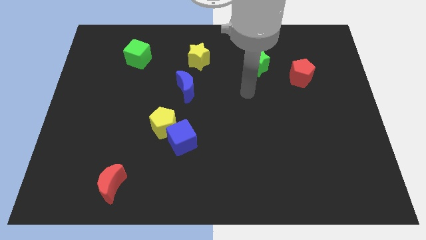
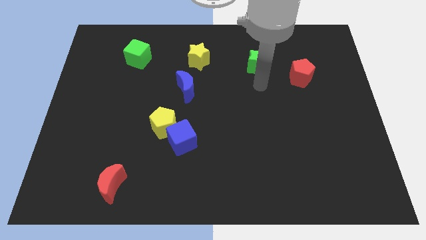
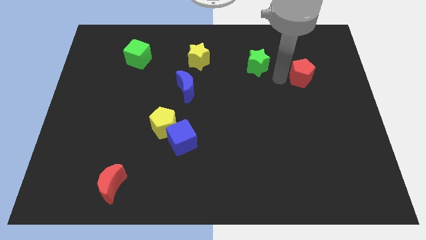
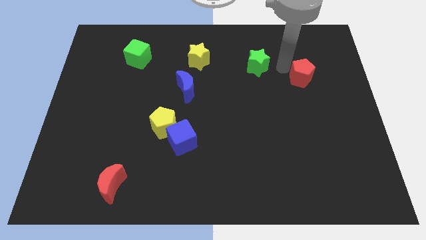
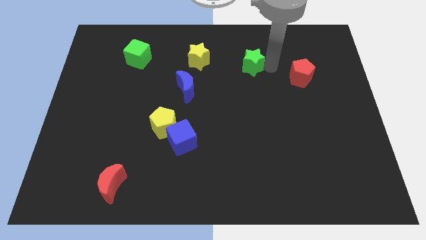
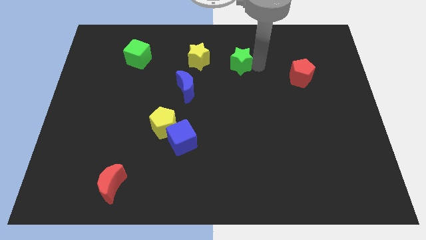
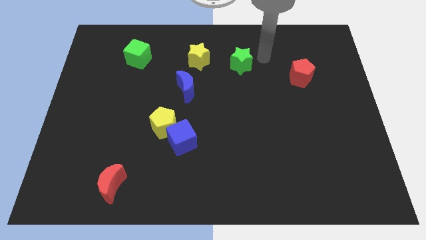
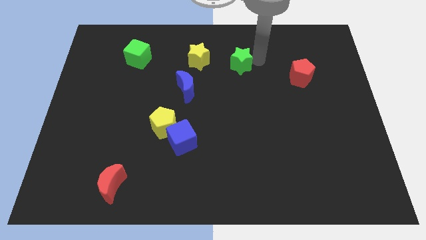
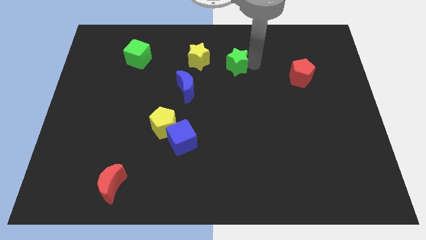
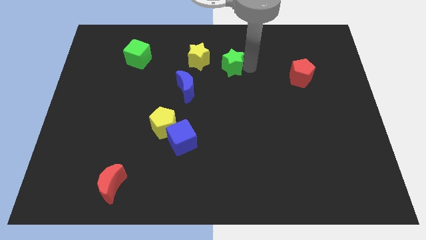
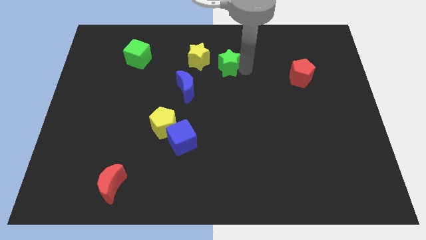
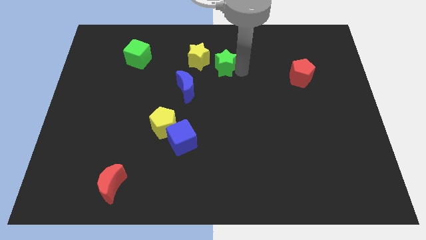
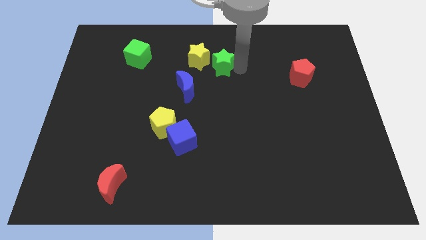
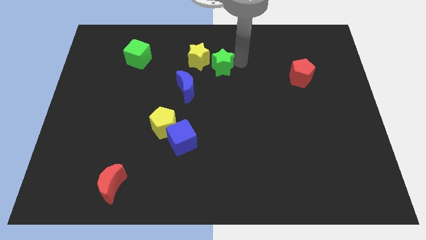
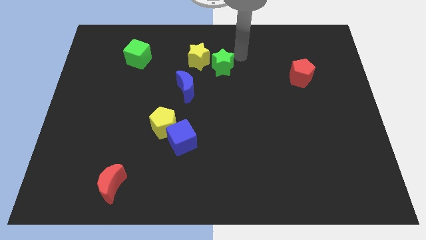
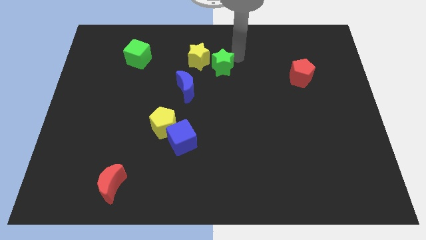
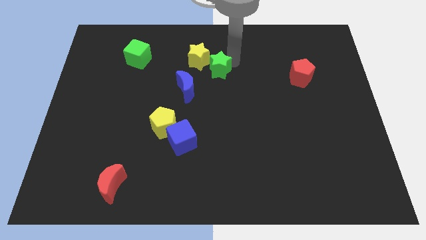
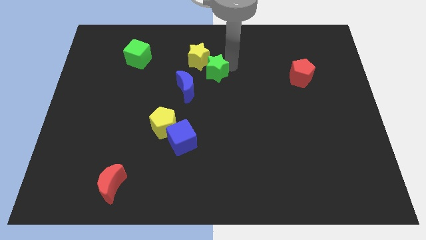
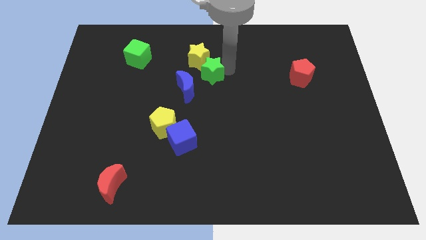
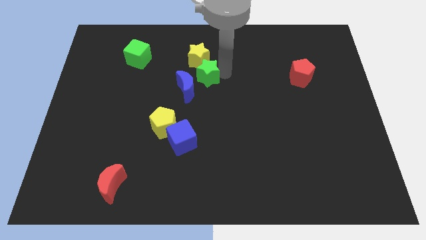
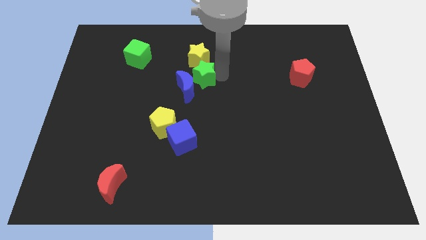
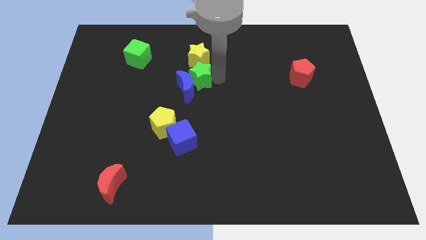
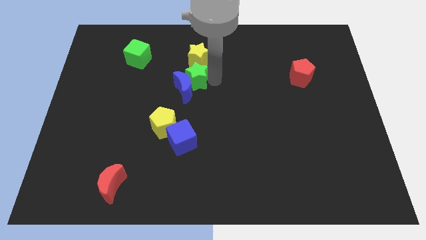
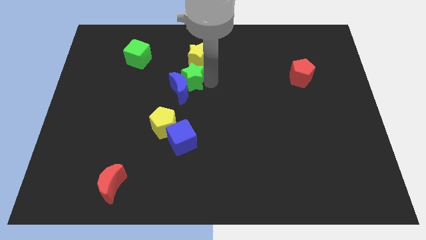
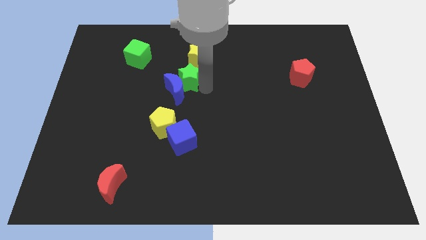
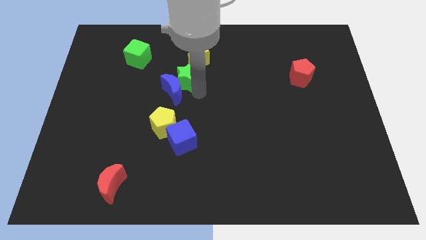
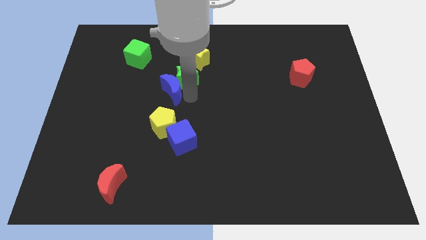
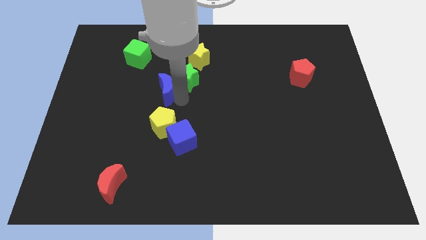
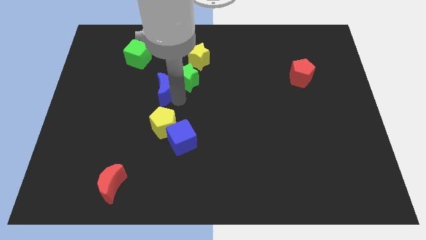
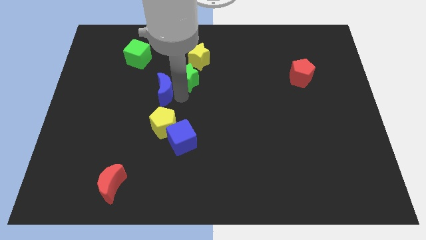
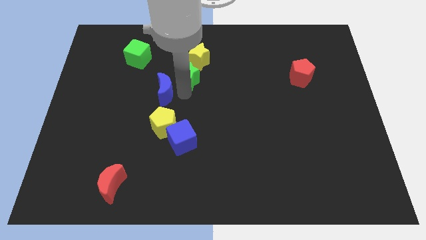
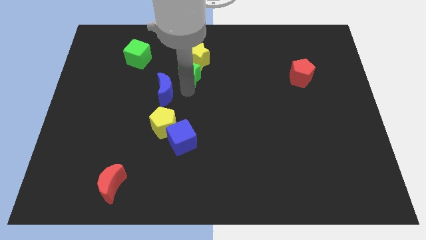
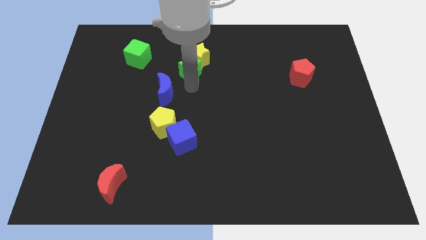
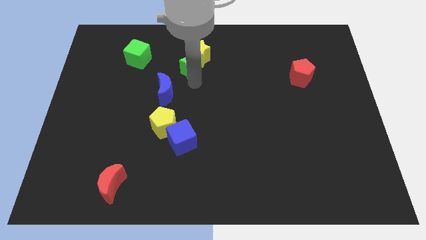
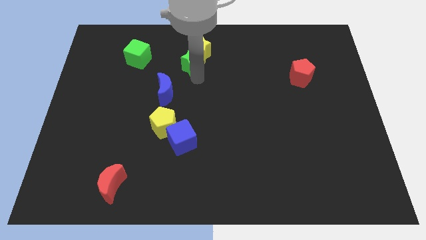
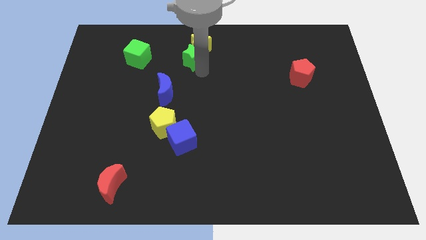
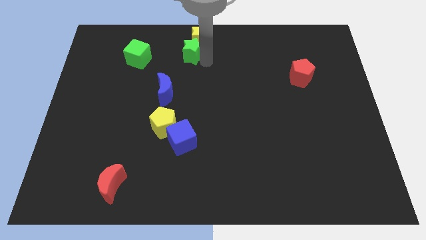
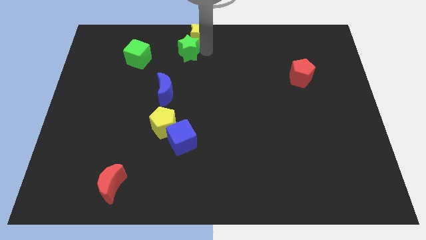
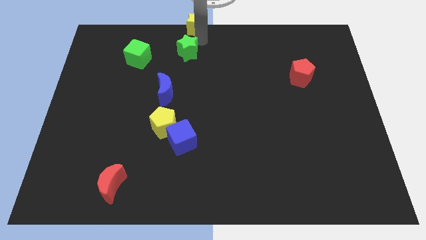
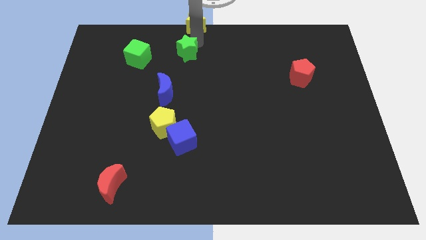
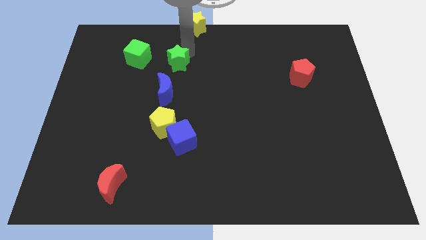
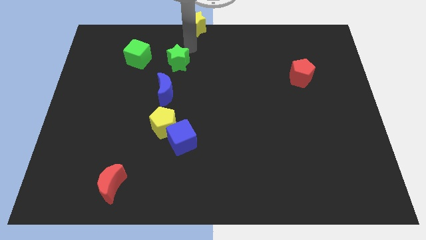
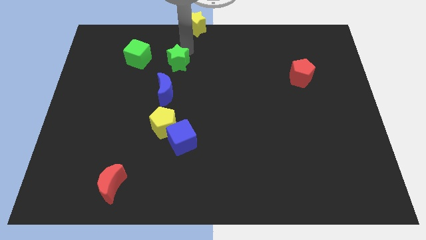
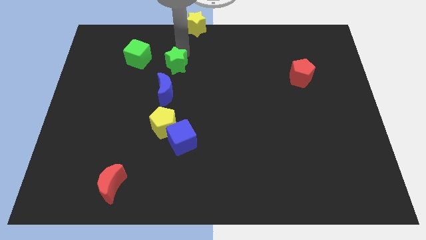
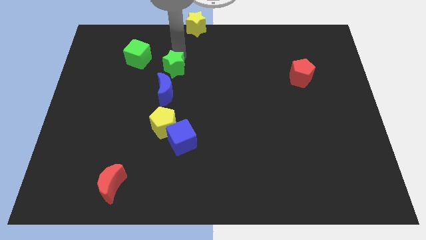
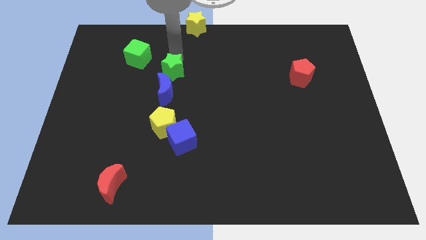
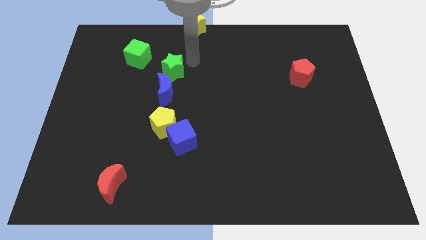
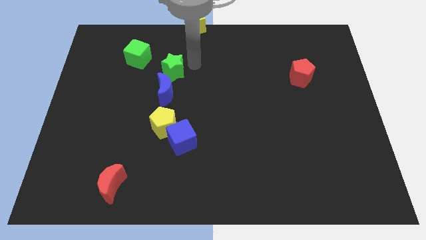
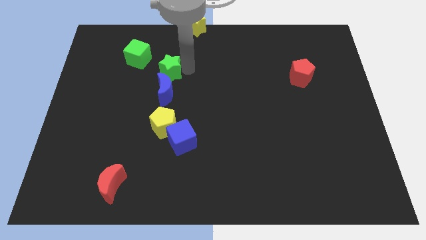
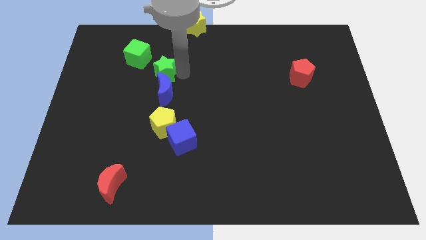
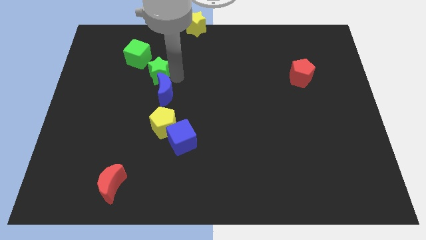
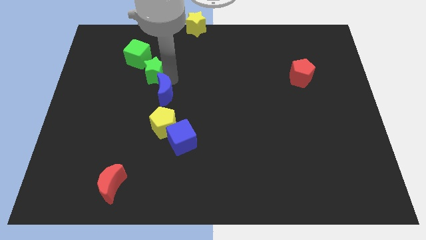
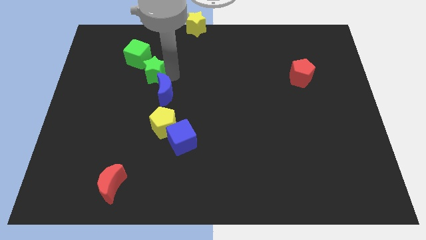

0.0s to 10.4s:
slide the green star to the bottom side of the green cube

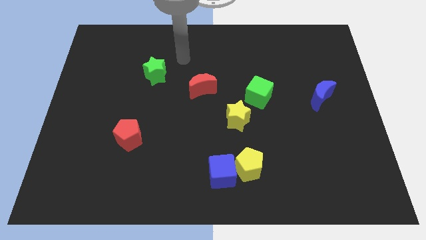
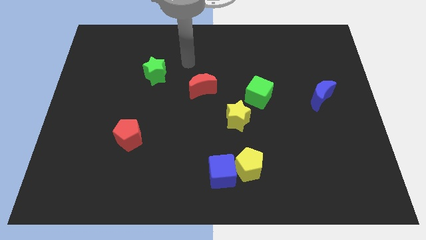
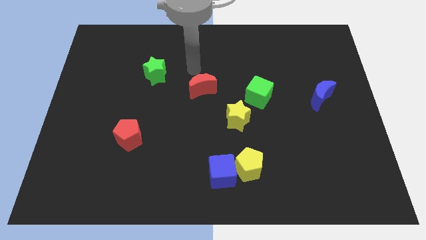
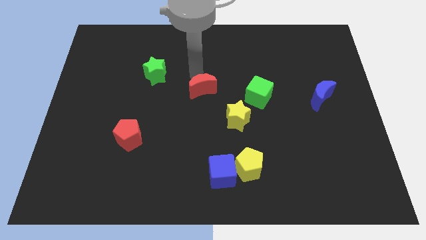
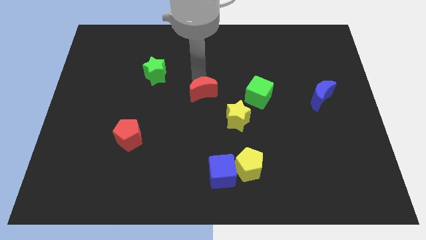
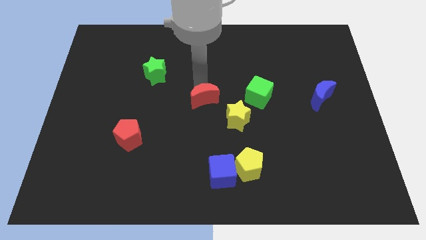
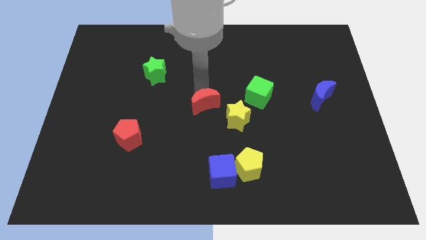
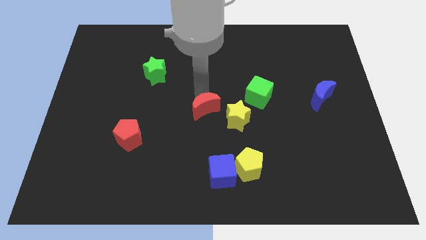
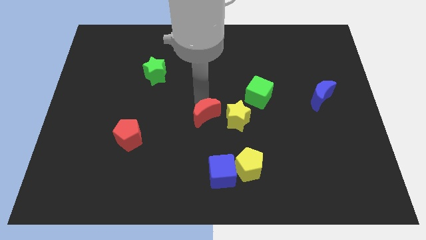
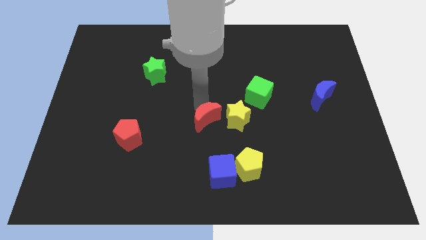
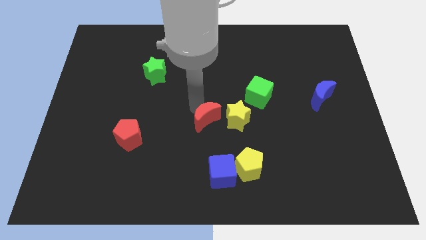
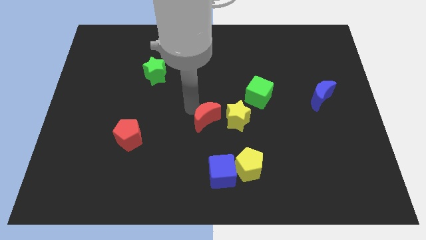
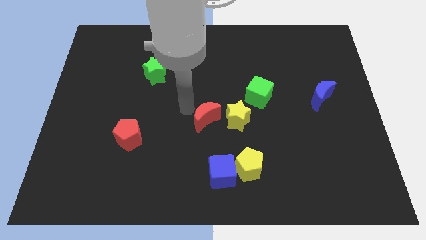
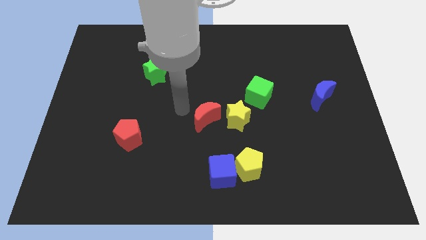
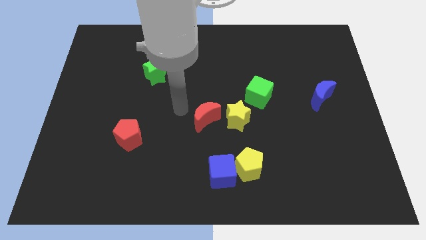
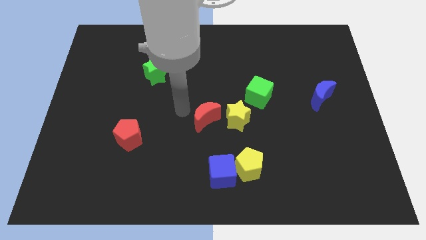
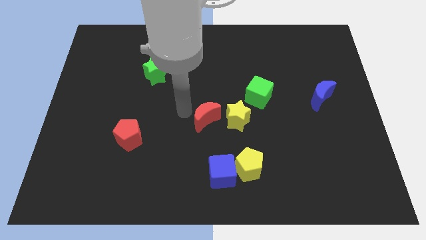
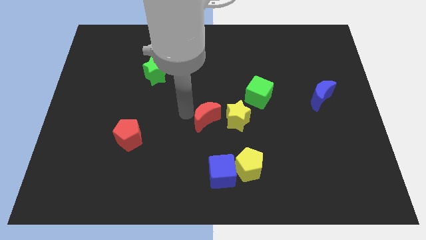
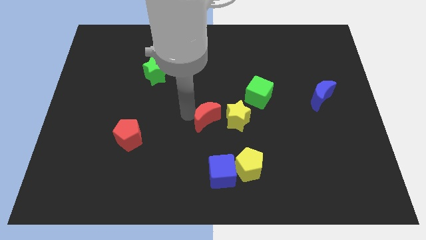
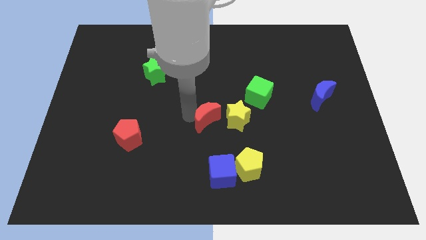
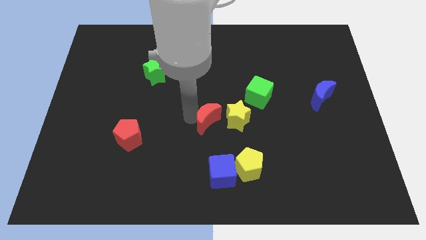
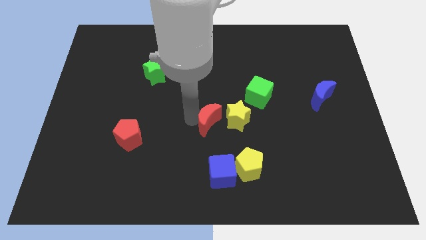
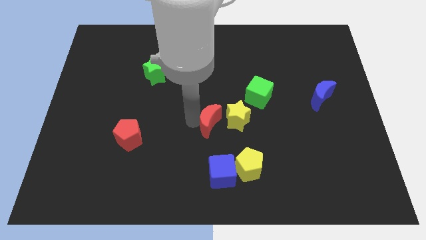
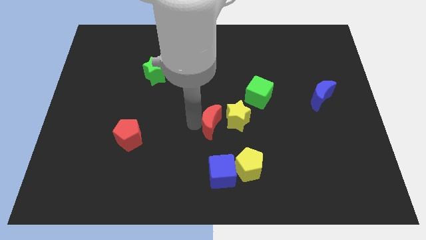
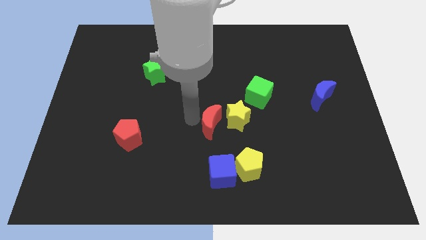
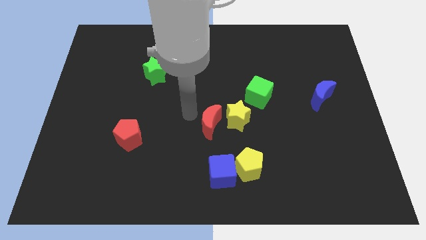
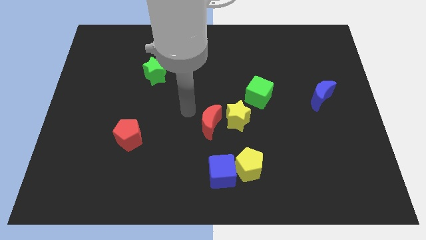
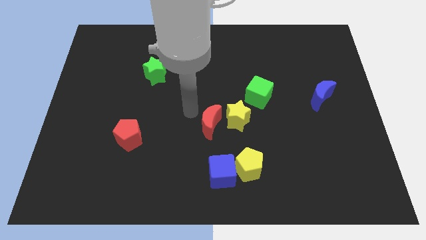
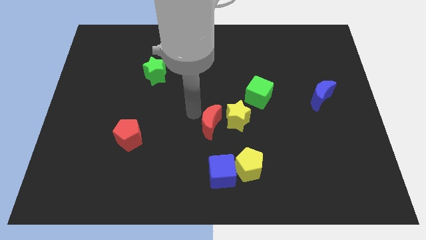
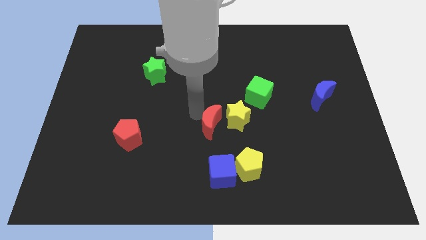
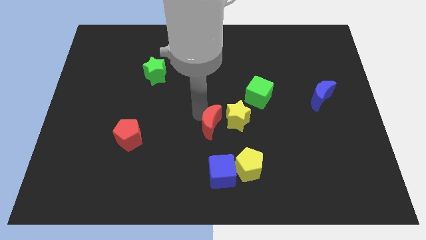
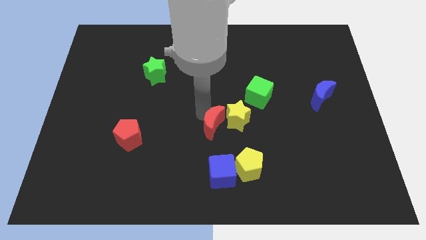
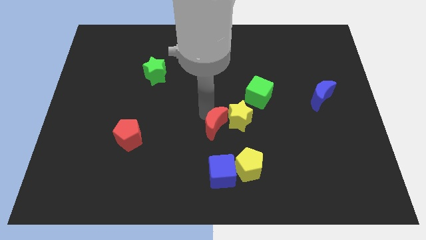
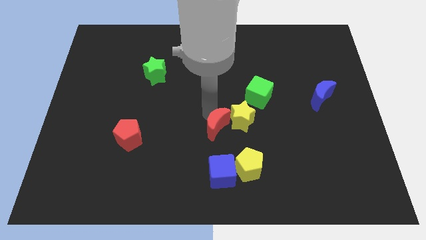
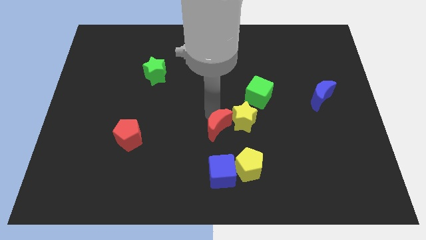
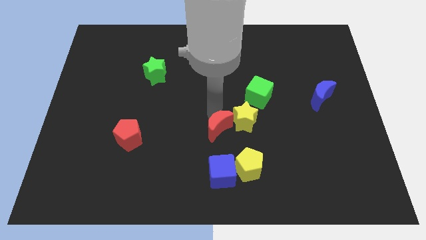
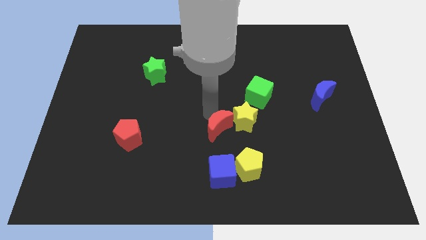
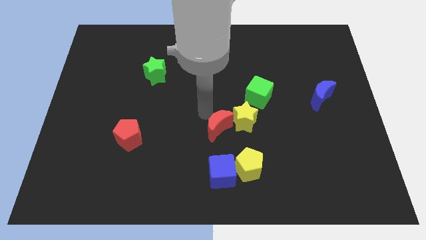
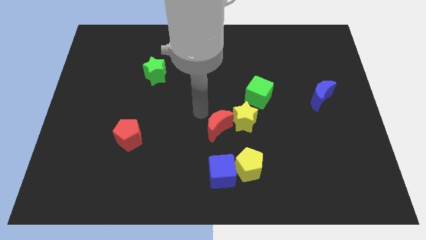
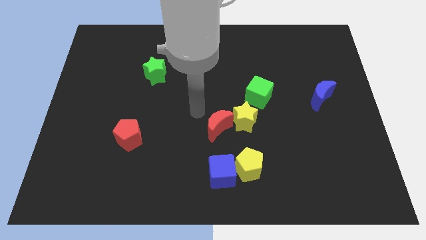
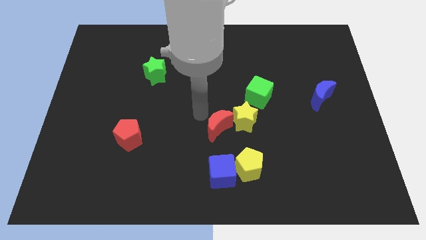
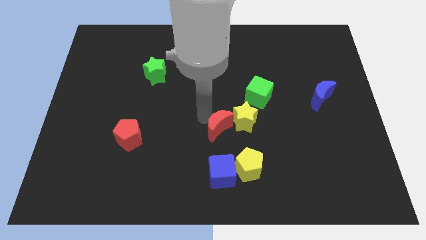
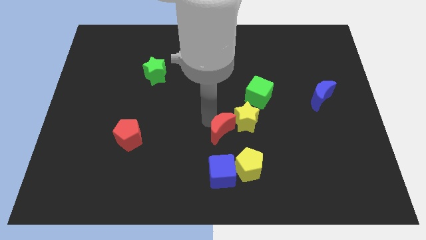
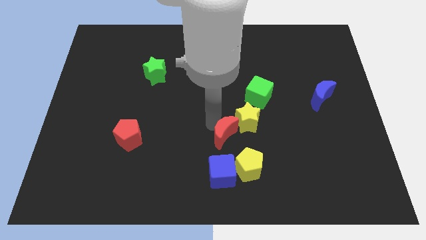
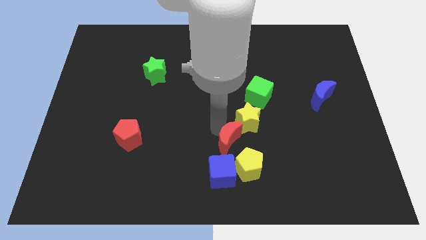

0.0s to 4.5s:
move the red moon to the top right of the blue cube
